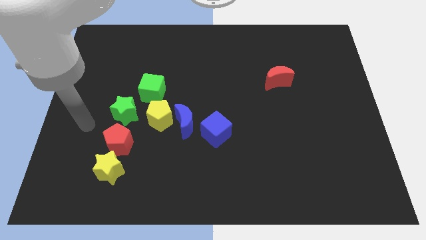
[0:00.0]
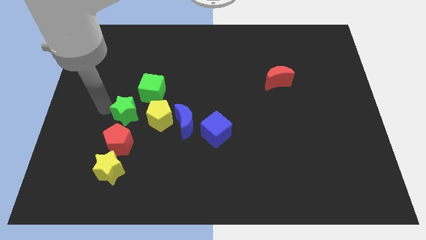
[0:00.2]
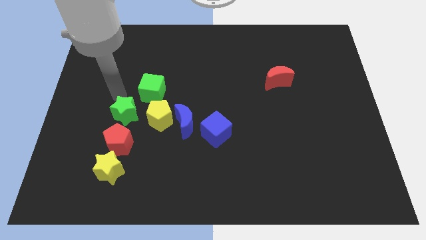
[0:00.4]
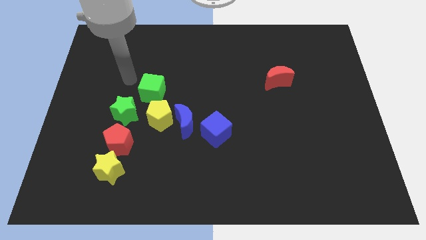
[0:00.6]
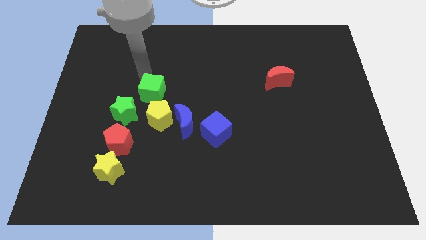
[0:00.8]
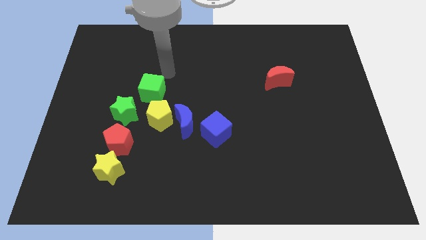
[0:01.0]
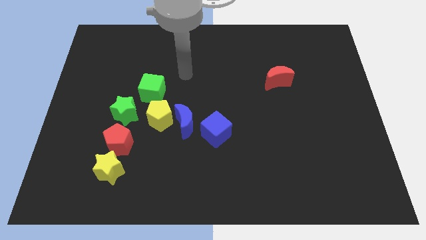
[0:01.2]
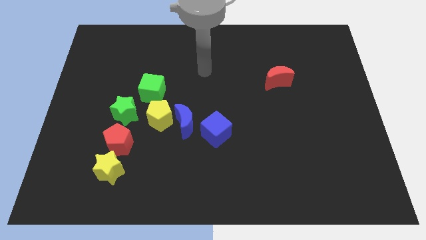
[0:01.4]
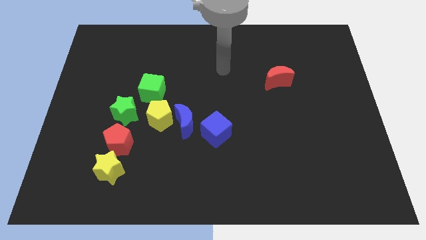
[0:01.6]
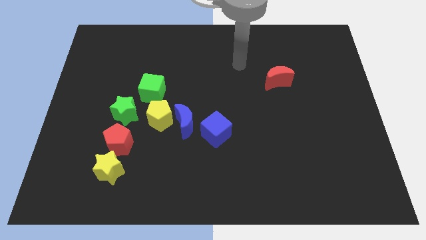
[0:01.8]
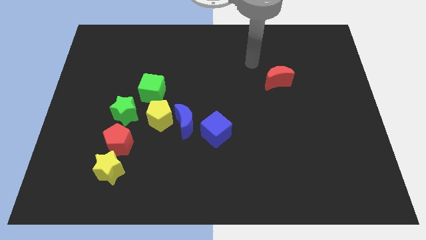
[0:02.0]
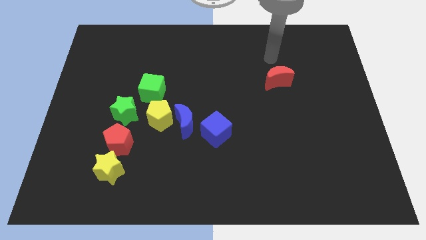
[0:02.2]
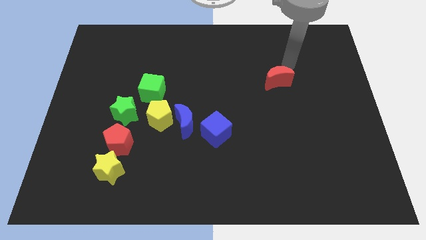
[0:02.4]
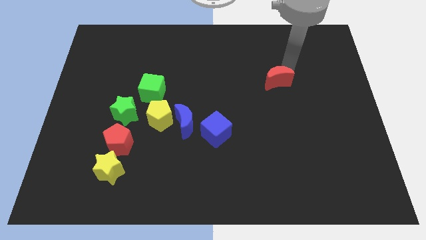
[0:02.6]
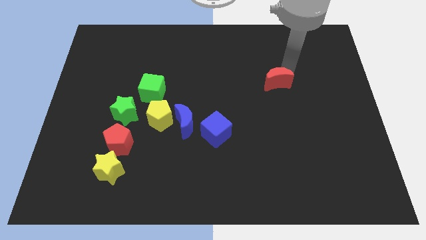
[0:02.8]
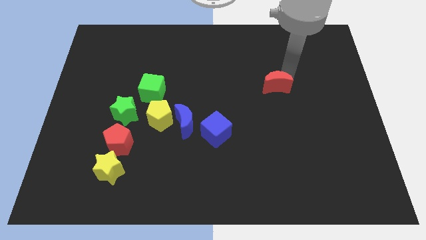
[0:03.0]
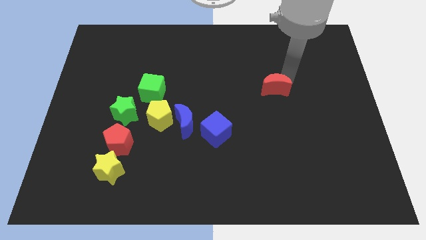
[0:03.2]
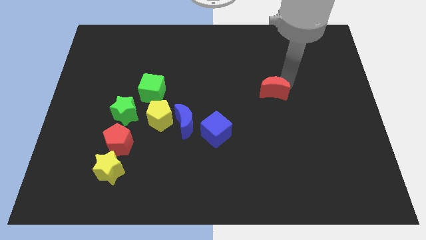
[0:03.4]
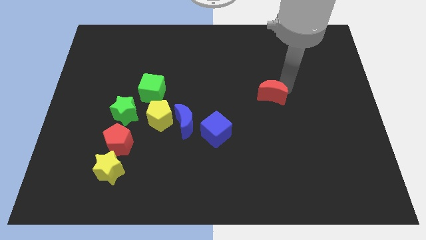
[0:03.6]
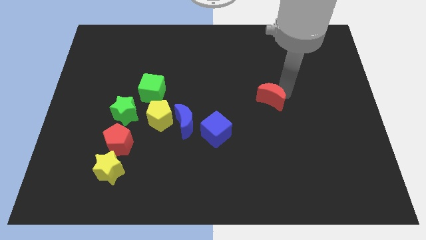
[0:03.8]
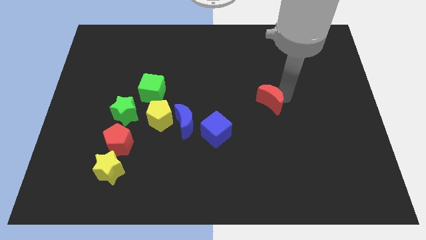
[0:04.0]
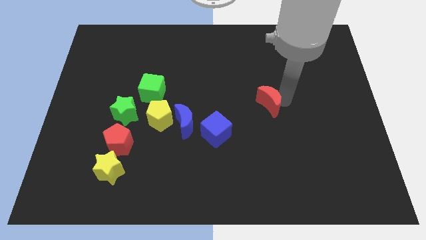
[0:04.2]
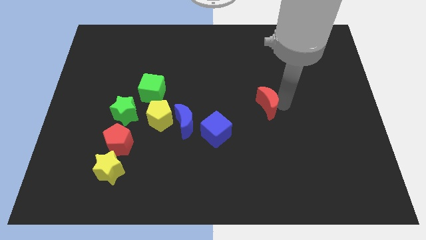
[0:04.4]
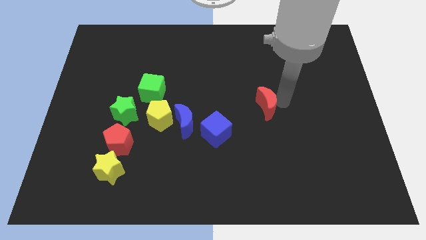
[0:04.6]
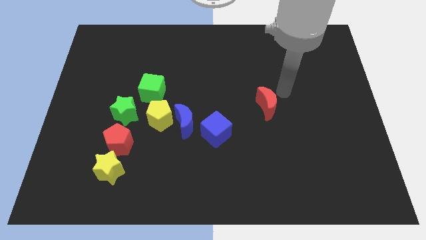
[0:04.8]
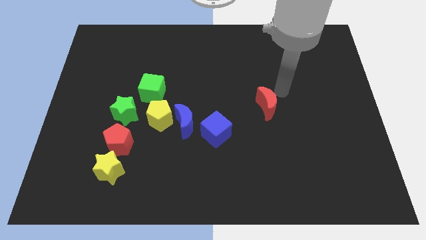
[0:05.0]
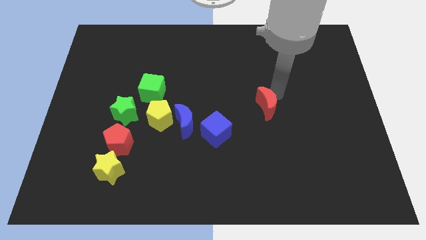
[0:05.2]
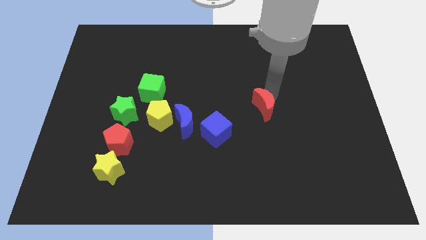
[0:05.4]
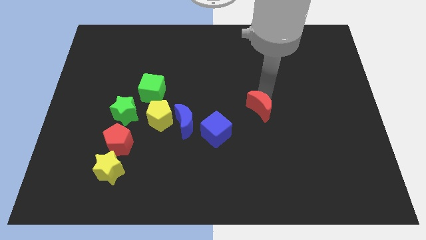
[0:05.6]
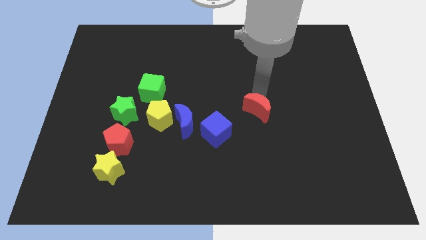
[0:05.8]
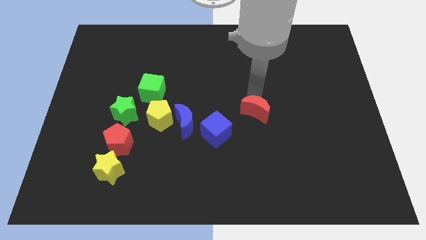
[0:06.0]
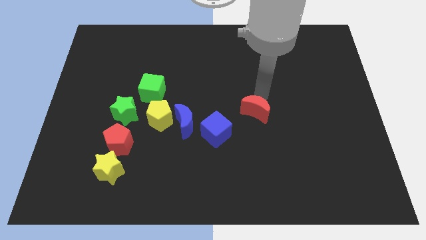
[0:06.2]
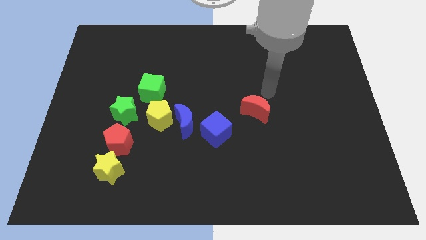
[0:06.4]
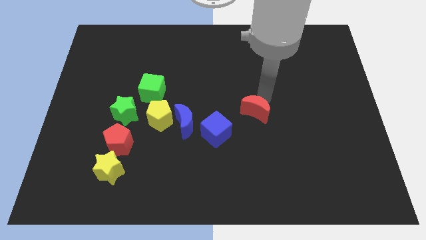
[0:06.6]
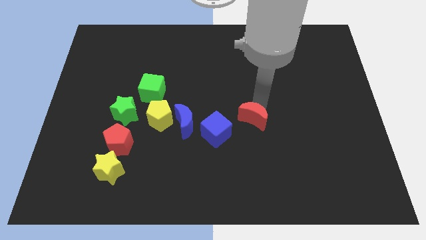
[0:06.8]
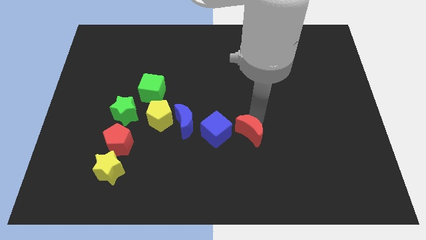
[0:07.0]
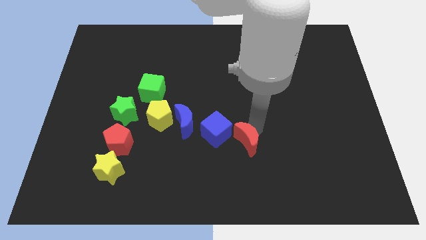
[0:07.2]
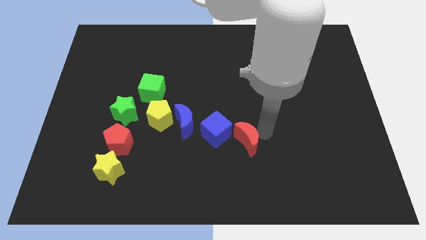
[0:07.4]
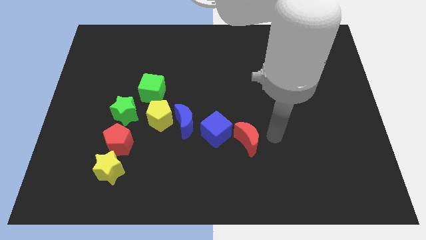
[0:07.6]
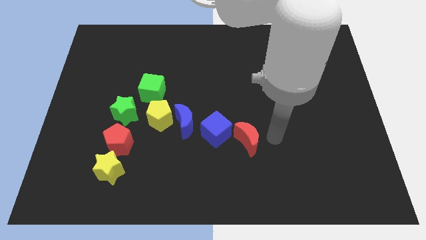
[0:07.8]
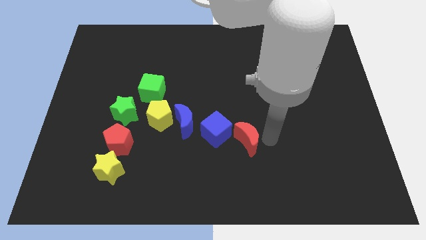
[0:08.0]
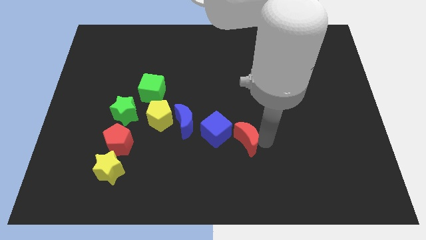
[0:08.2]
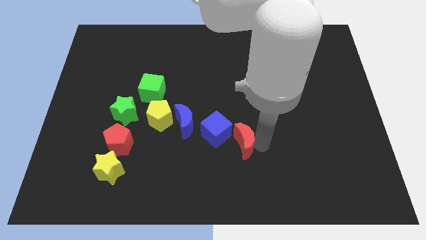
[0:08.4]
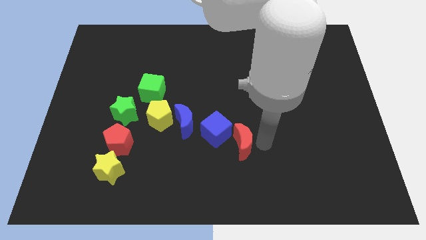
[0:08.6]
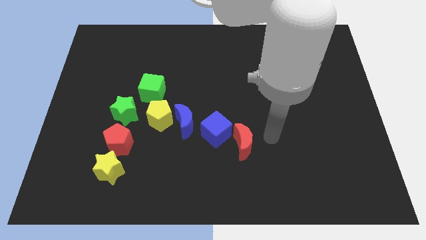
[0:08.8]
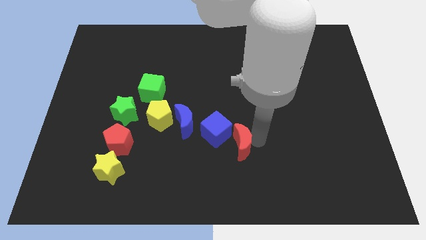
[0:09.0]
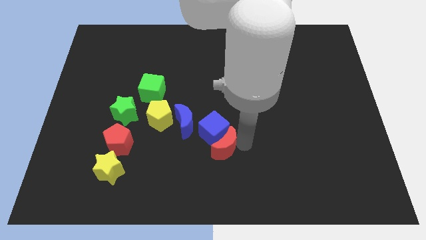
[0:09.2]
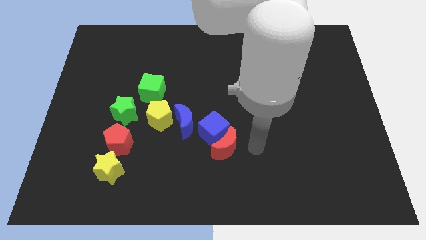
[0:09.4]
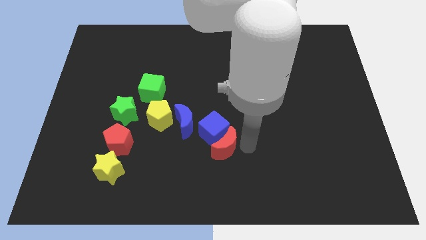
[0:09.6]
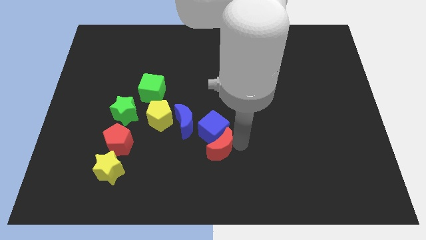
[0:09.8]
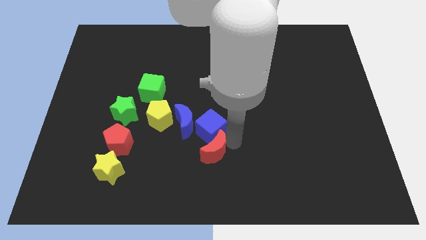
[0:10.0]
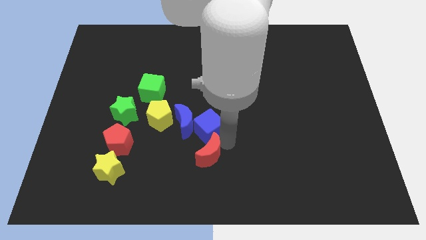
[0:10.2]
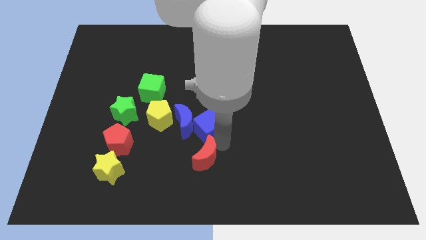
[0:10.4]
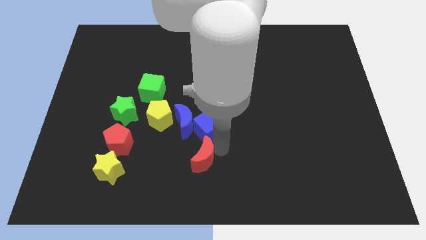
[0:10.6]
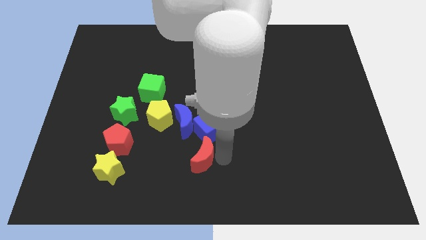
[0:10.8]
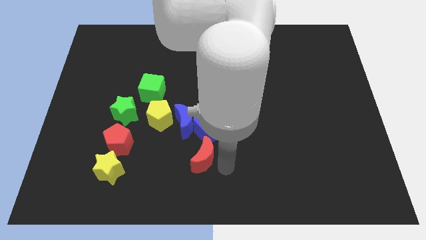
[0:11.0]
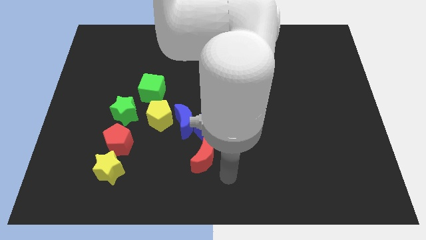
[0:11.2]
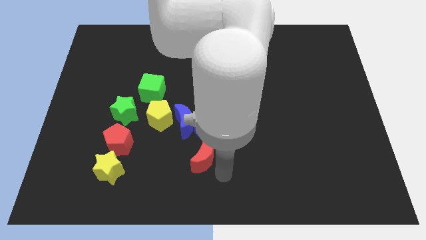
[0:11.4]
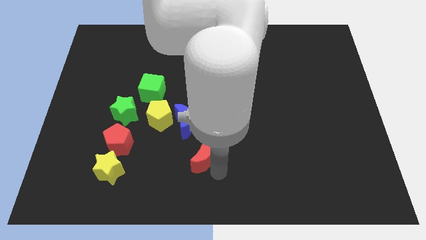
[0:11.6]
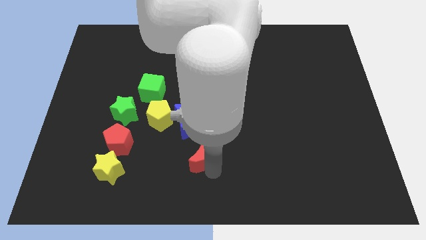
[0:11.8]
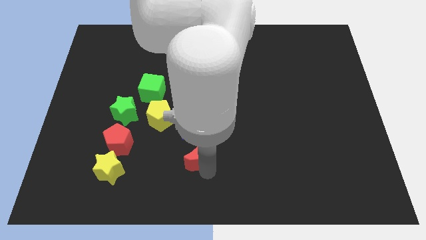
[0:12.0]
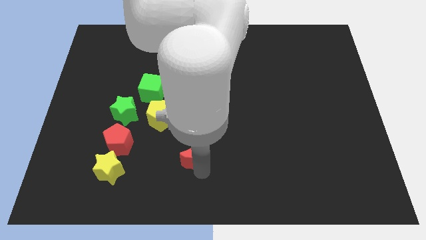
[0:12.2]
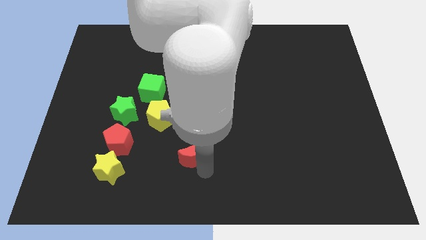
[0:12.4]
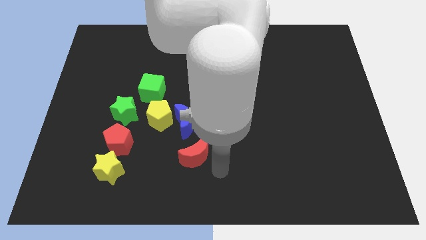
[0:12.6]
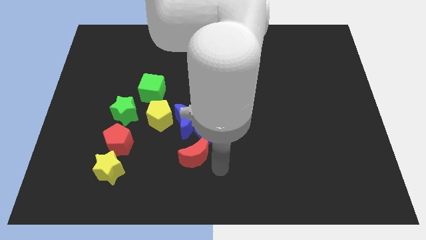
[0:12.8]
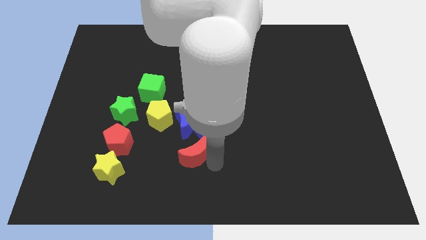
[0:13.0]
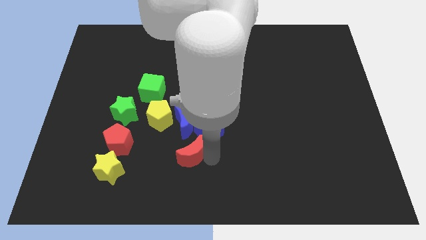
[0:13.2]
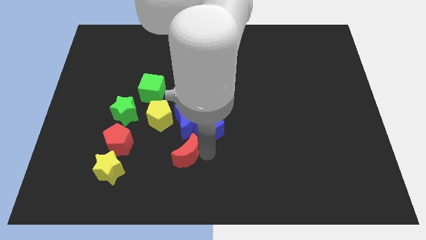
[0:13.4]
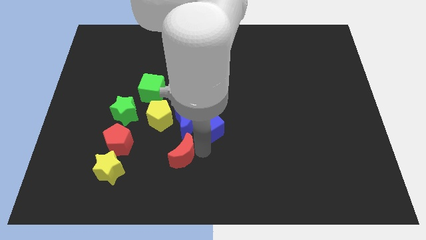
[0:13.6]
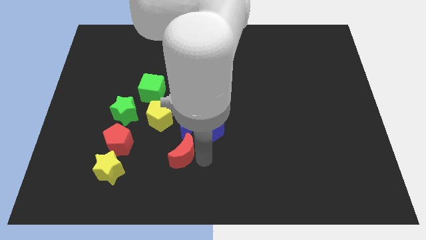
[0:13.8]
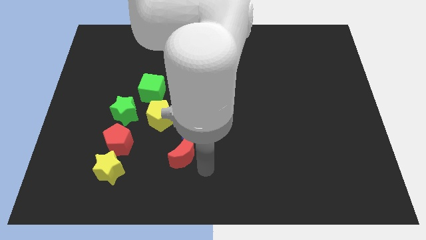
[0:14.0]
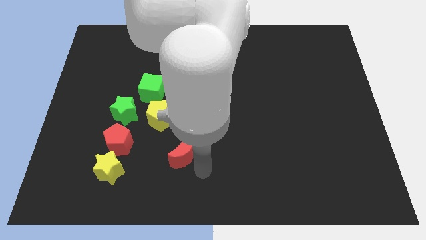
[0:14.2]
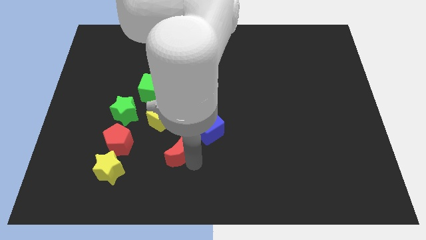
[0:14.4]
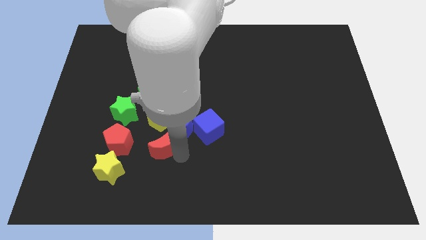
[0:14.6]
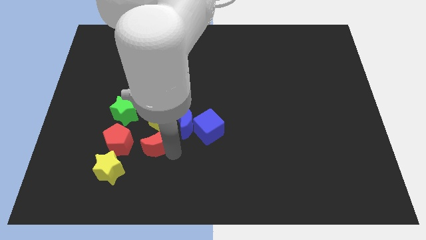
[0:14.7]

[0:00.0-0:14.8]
move the red moon below the green cube
